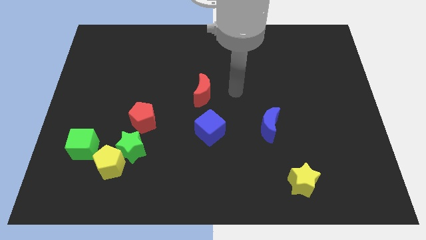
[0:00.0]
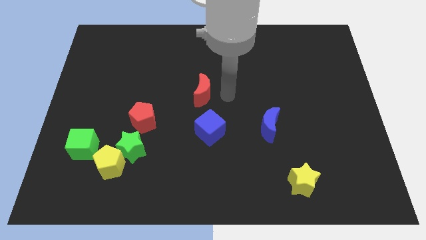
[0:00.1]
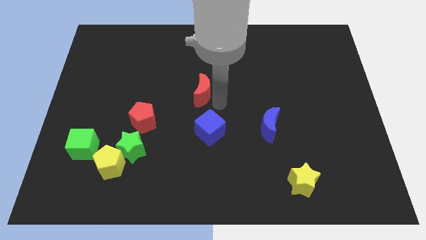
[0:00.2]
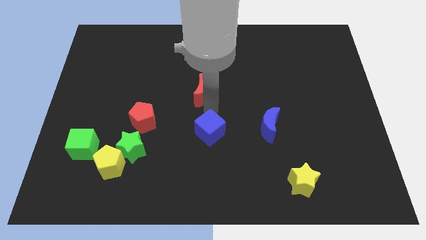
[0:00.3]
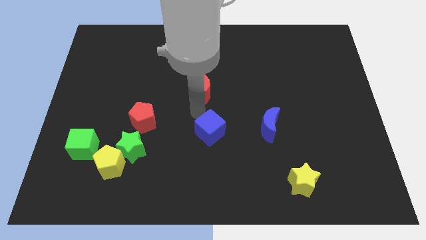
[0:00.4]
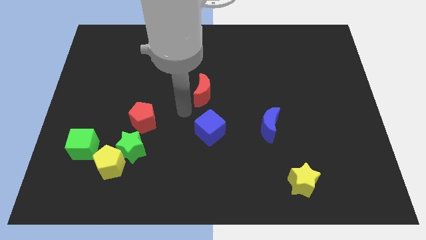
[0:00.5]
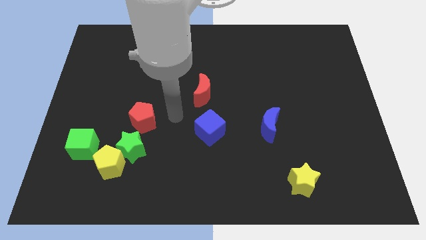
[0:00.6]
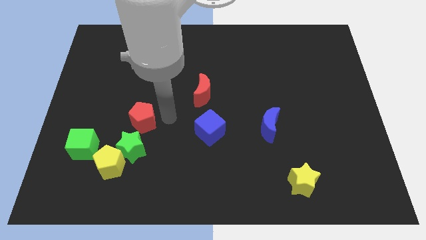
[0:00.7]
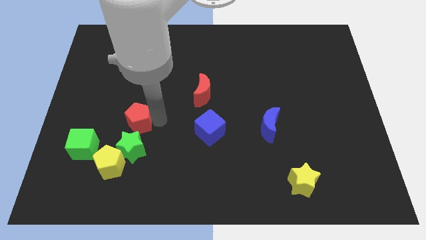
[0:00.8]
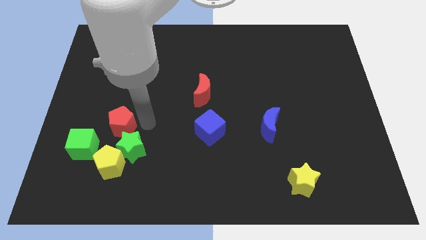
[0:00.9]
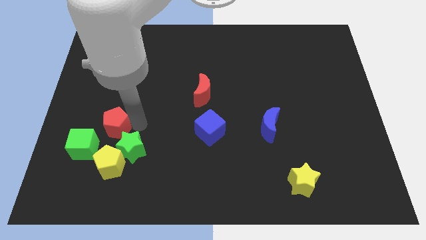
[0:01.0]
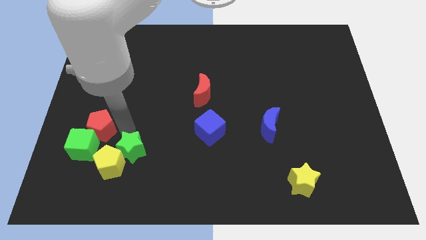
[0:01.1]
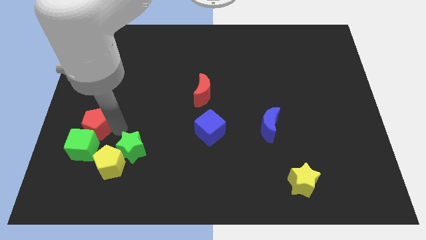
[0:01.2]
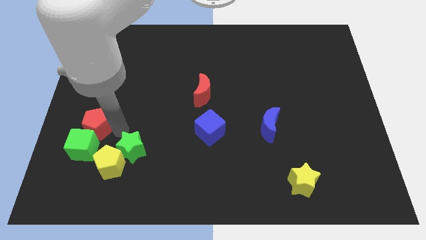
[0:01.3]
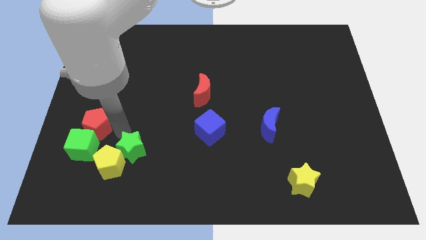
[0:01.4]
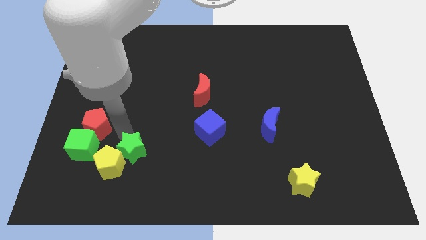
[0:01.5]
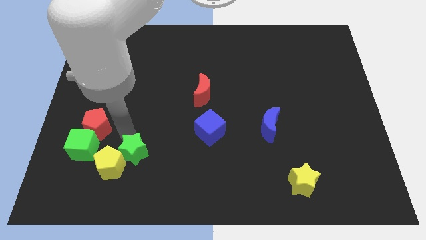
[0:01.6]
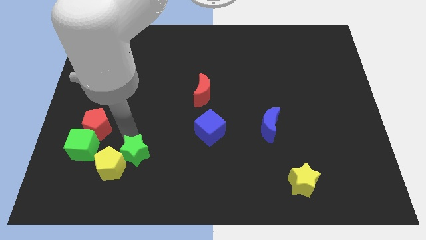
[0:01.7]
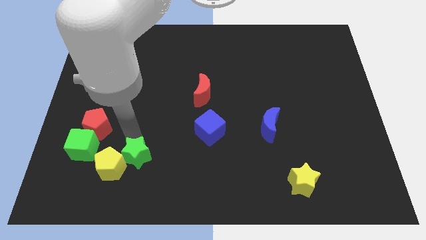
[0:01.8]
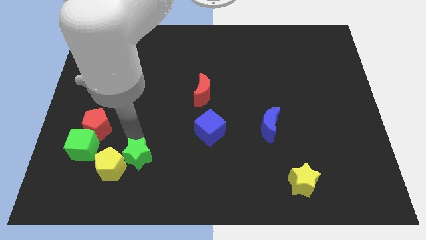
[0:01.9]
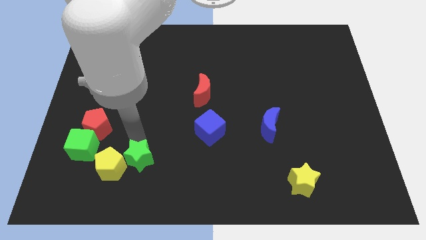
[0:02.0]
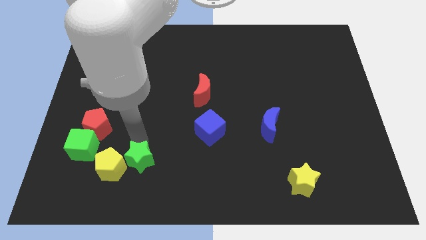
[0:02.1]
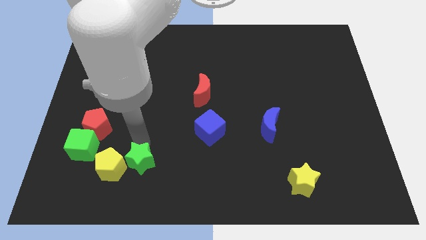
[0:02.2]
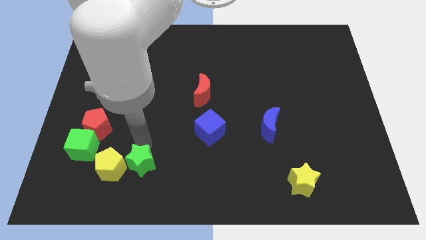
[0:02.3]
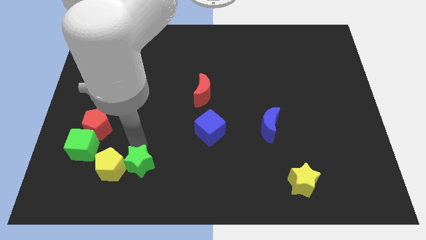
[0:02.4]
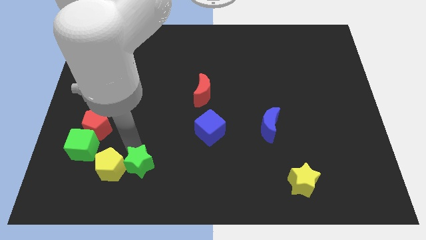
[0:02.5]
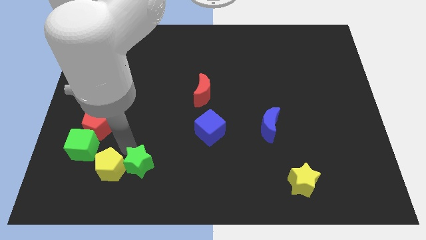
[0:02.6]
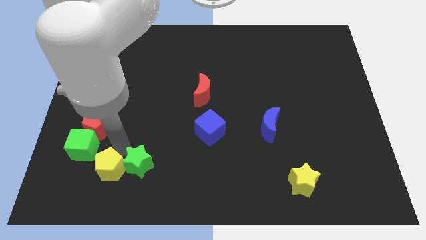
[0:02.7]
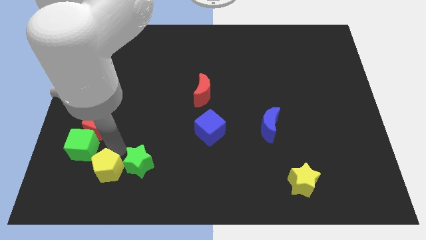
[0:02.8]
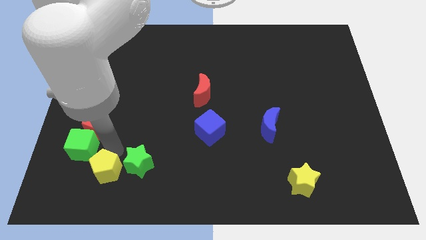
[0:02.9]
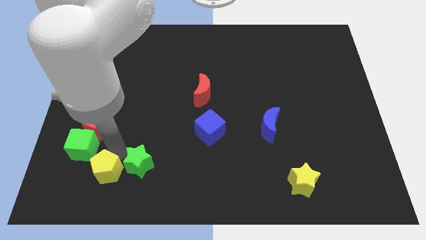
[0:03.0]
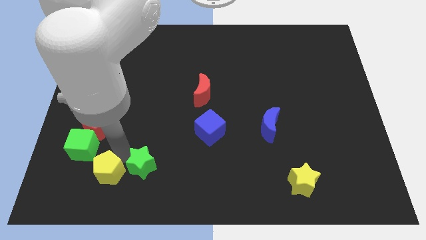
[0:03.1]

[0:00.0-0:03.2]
pull the green star apart from the yellow pentagon and red pentagon

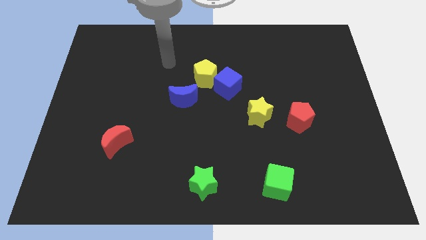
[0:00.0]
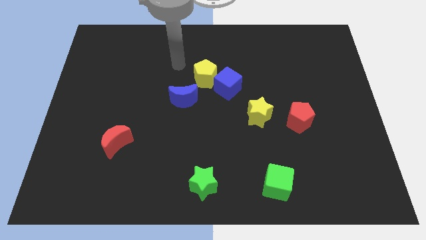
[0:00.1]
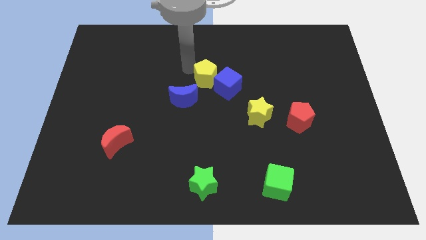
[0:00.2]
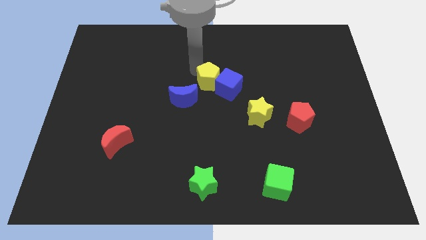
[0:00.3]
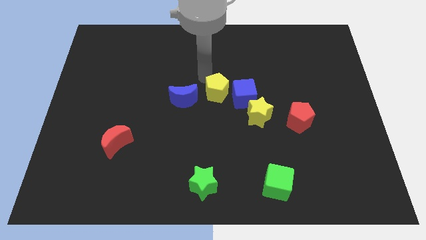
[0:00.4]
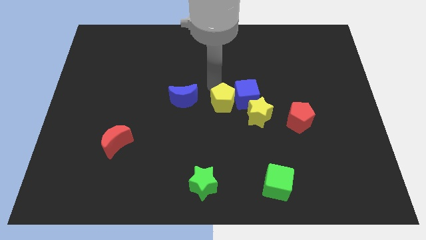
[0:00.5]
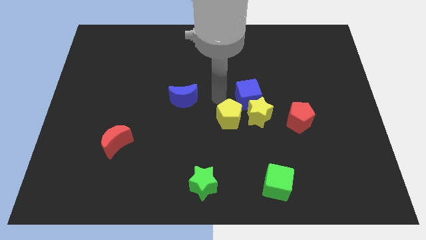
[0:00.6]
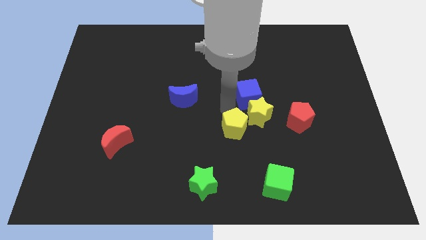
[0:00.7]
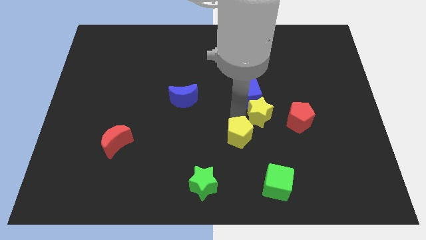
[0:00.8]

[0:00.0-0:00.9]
move the blue cube away from the yellow pentagon

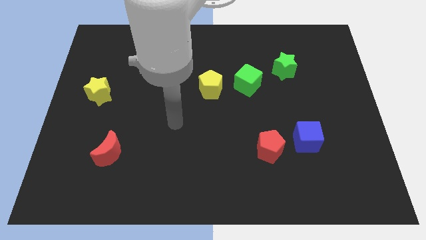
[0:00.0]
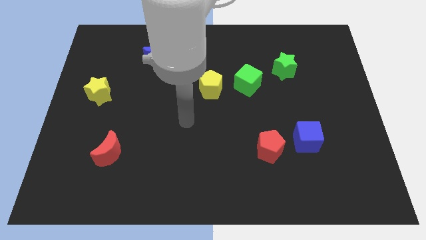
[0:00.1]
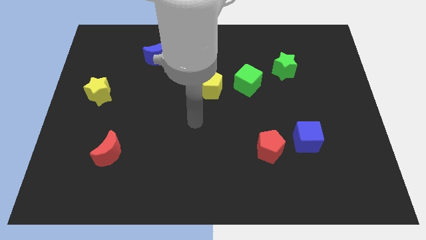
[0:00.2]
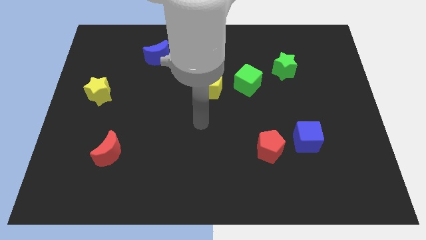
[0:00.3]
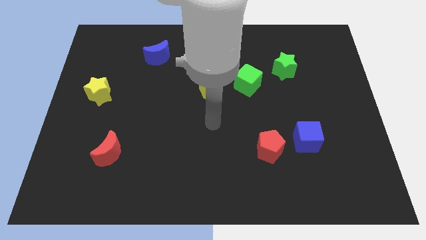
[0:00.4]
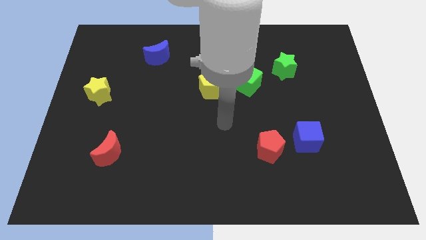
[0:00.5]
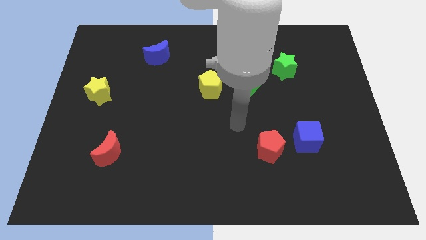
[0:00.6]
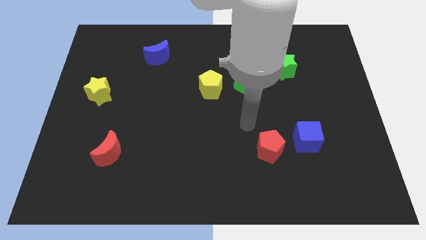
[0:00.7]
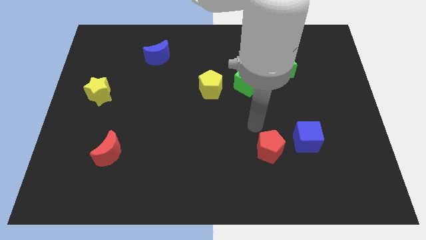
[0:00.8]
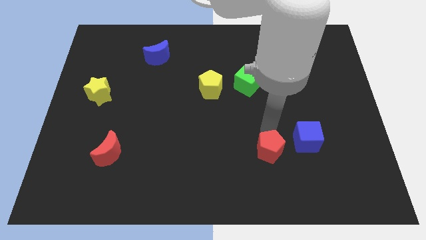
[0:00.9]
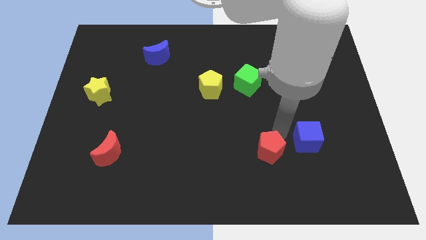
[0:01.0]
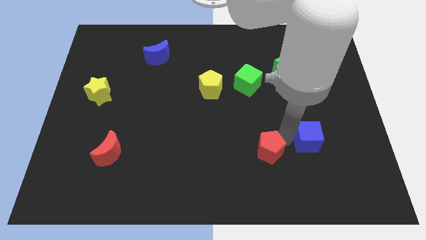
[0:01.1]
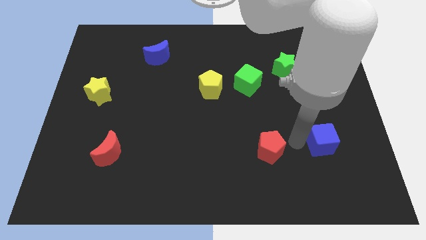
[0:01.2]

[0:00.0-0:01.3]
move the red pentagon away from the blue cube

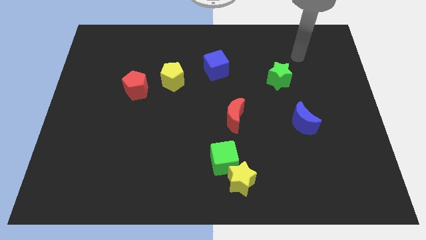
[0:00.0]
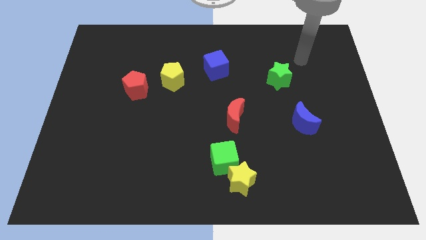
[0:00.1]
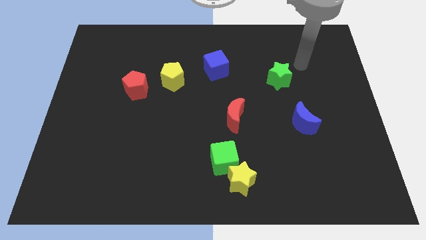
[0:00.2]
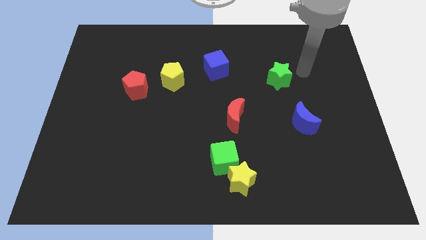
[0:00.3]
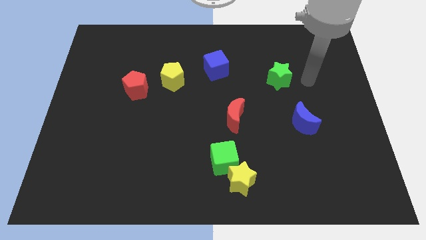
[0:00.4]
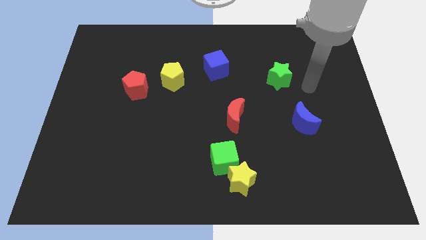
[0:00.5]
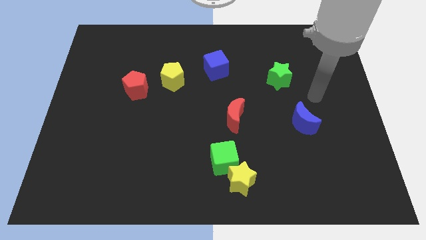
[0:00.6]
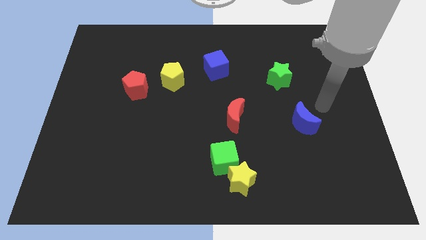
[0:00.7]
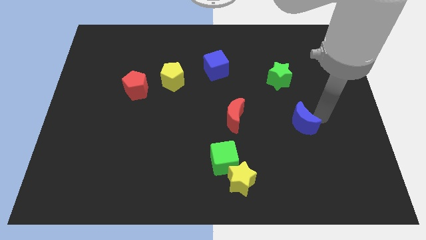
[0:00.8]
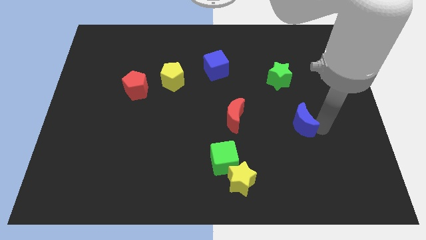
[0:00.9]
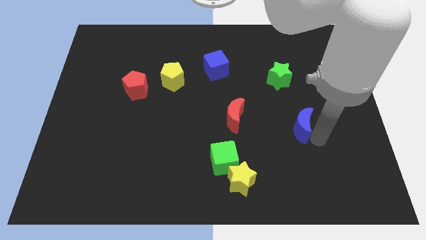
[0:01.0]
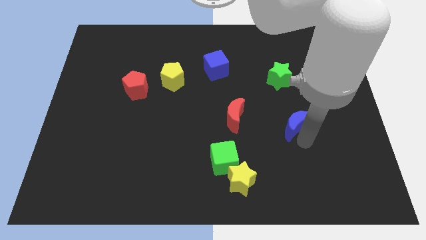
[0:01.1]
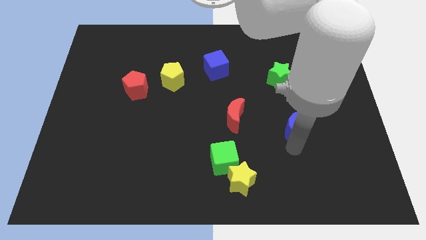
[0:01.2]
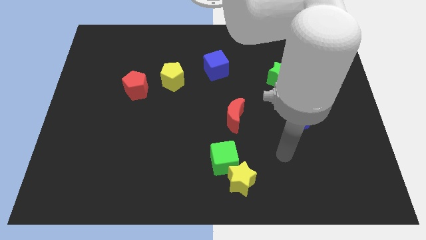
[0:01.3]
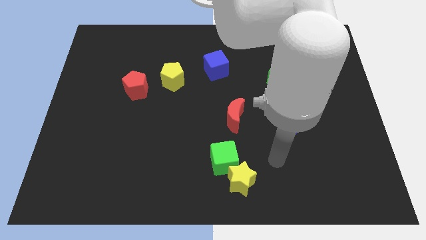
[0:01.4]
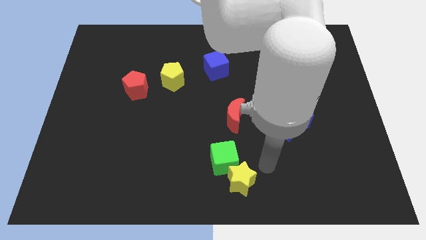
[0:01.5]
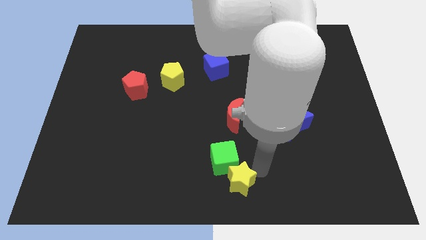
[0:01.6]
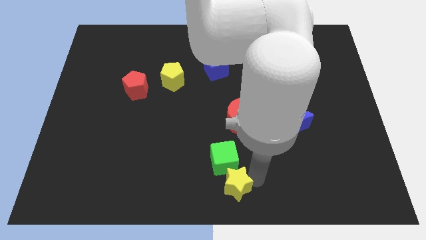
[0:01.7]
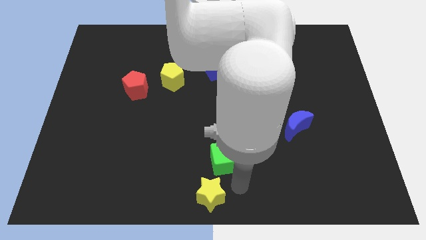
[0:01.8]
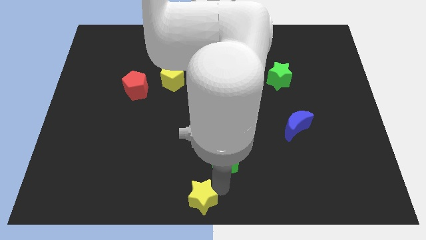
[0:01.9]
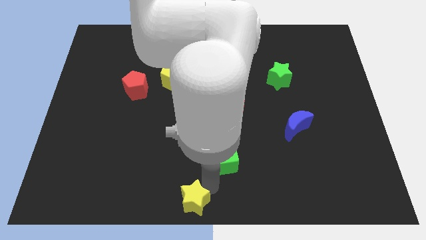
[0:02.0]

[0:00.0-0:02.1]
pull the green cube apart from the yellow star

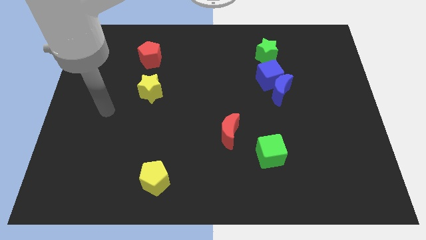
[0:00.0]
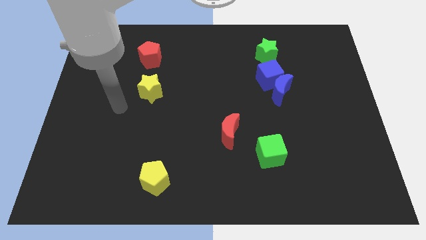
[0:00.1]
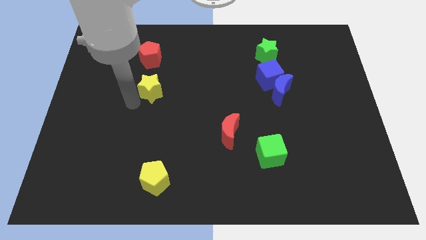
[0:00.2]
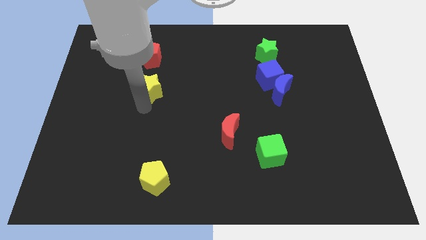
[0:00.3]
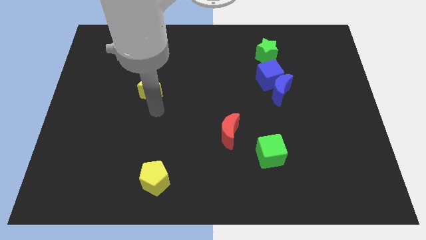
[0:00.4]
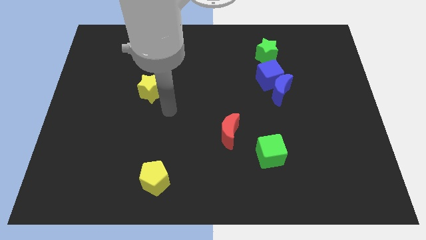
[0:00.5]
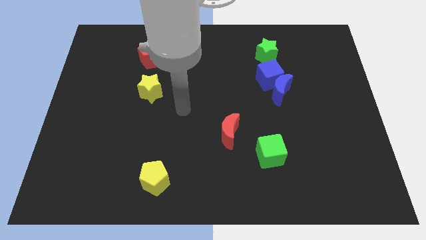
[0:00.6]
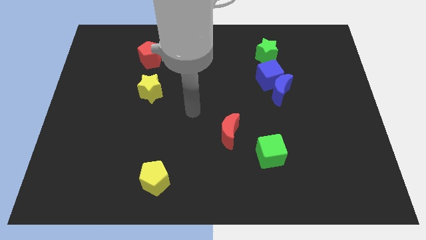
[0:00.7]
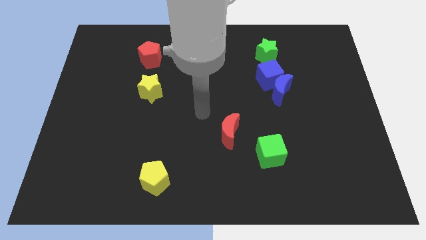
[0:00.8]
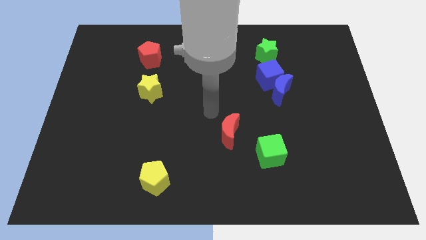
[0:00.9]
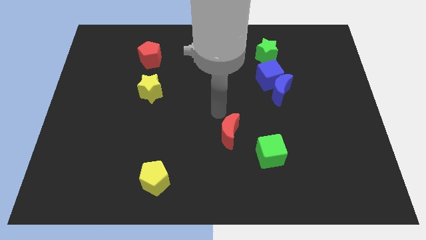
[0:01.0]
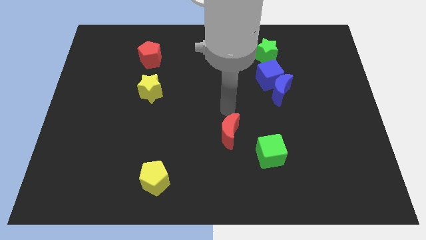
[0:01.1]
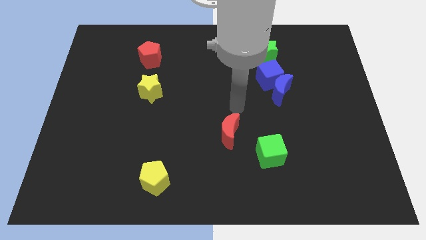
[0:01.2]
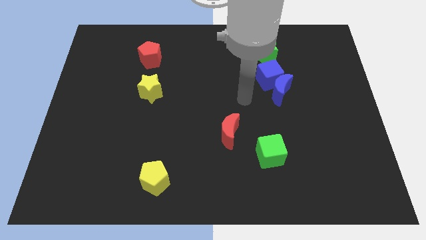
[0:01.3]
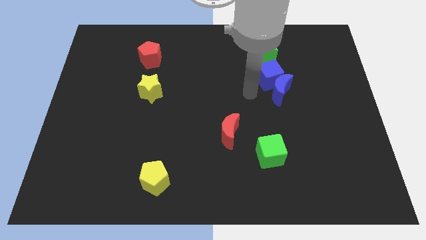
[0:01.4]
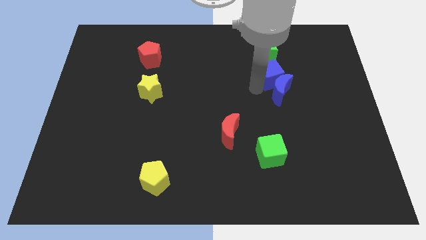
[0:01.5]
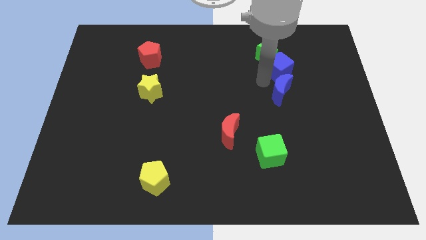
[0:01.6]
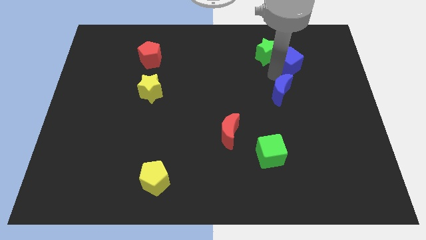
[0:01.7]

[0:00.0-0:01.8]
pull the blue moon apart from the blue cube
